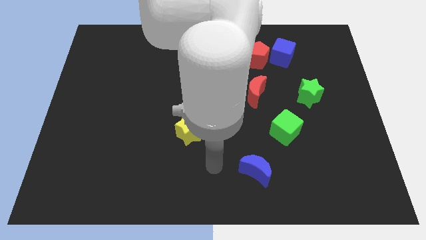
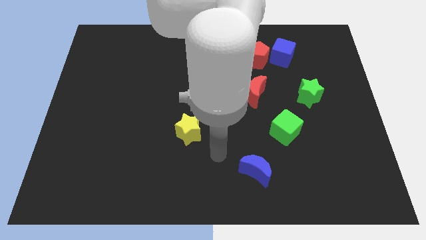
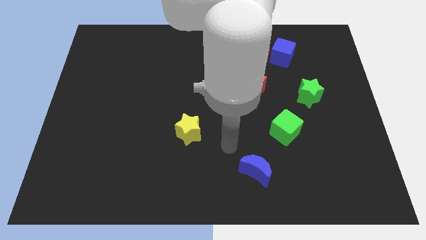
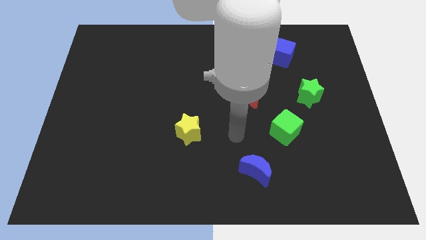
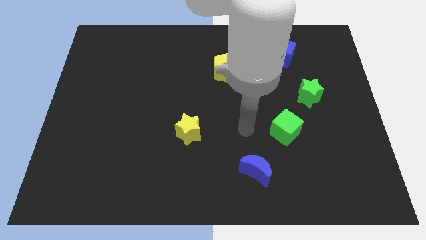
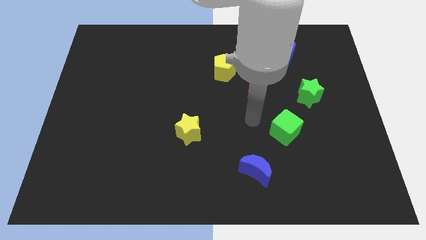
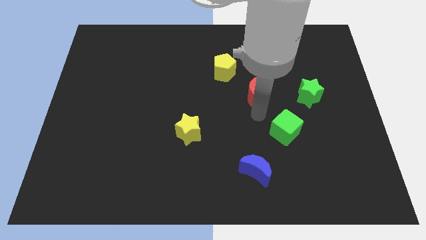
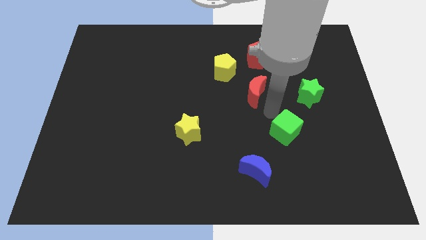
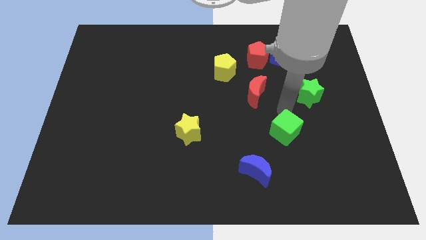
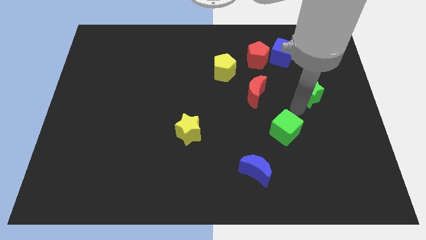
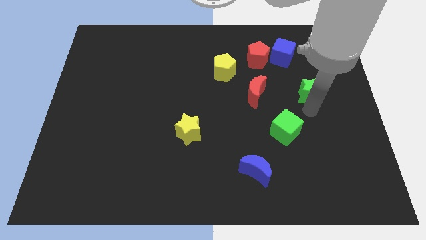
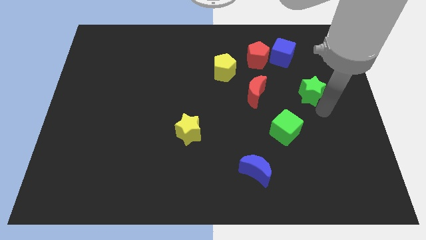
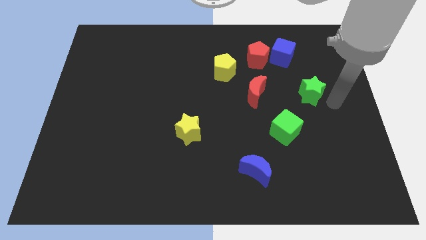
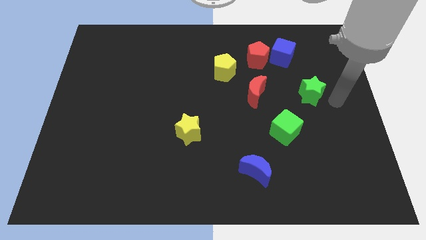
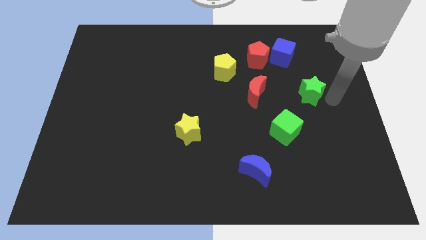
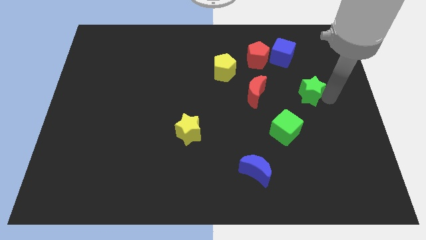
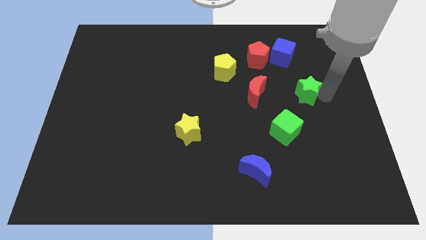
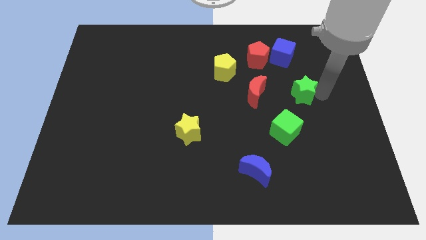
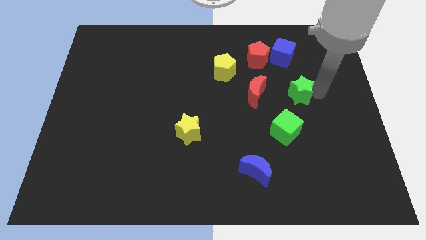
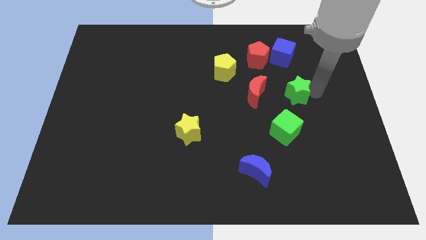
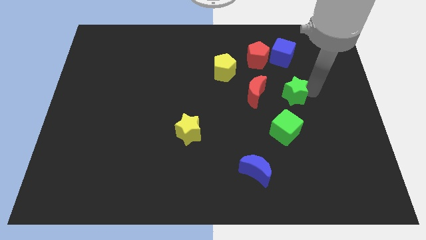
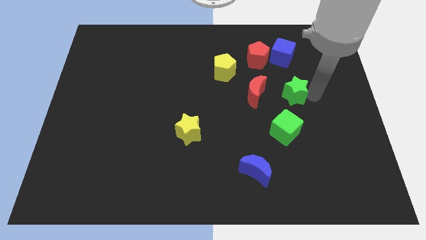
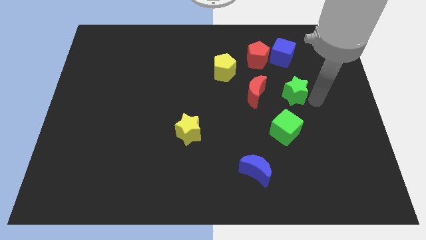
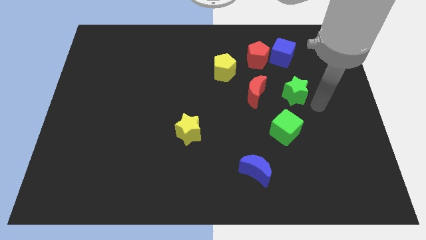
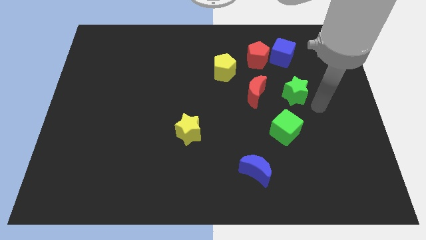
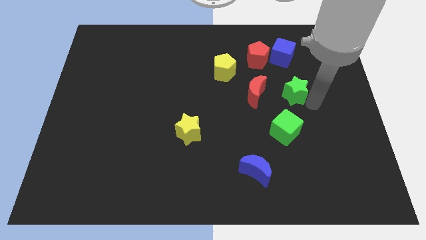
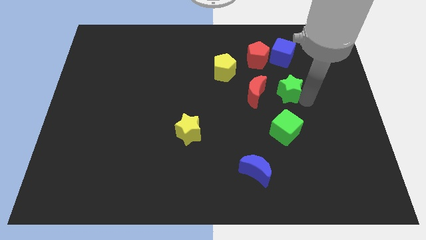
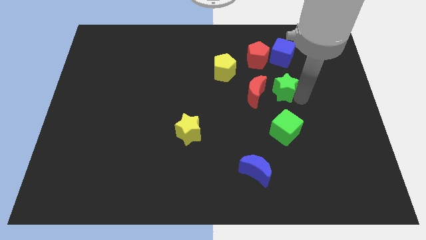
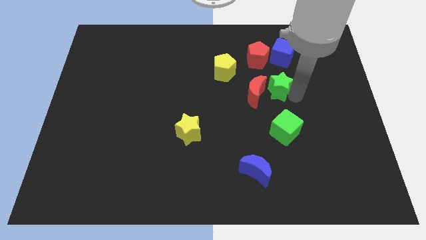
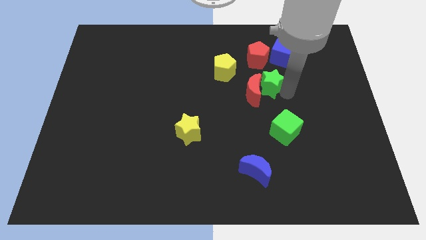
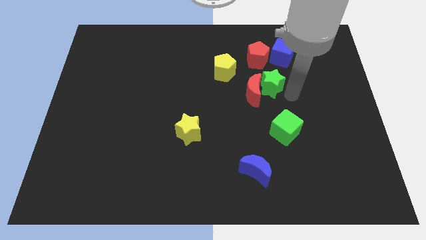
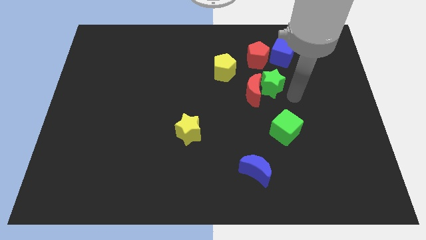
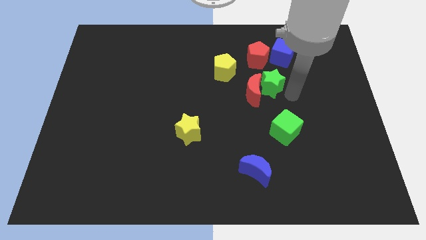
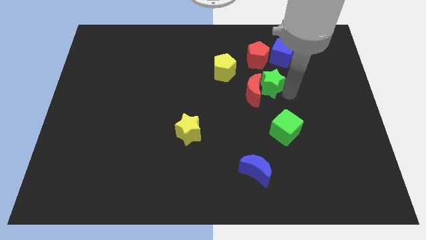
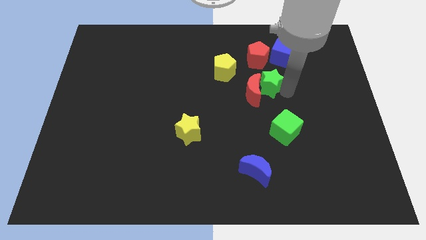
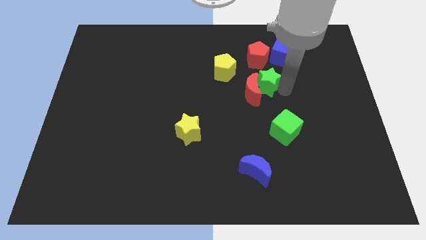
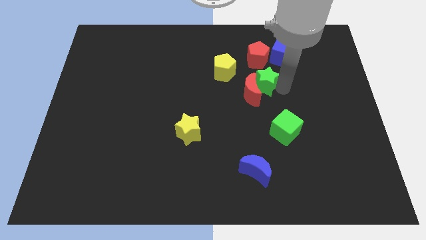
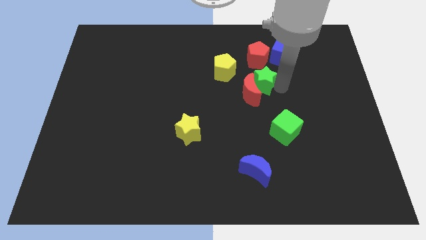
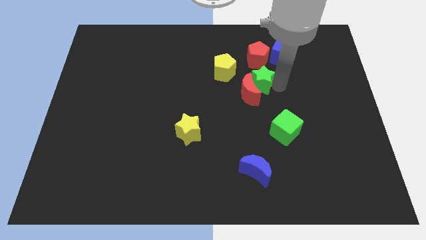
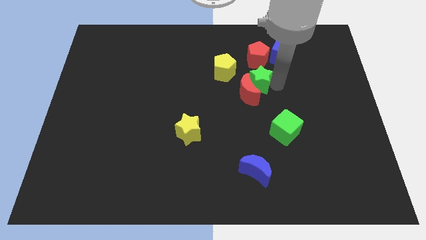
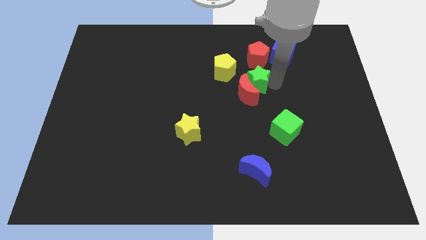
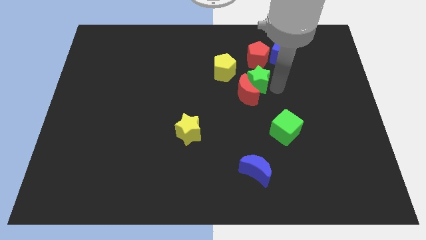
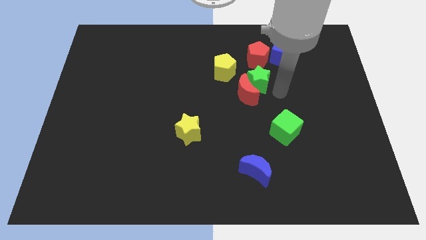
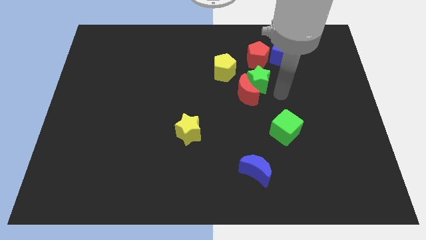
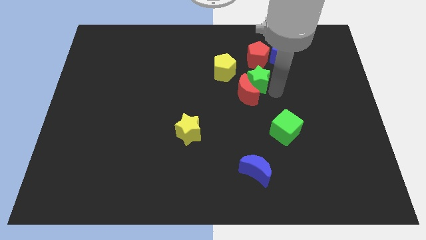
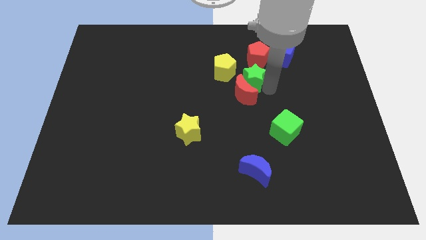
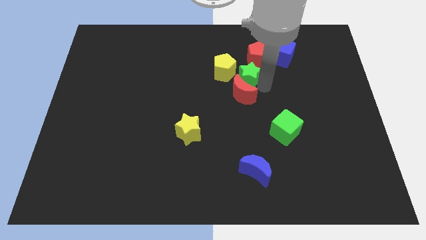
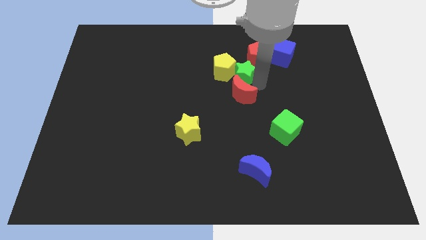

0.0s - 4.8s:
move the green star next to the yellow pentagon

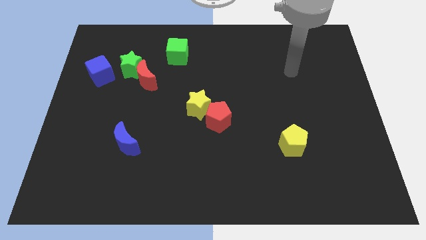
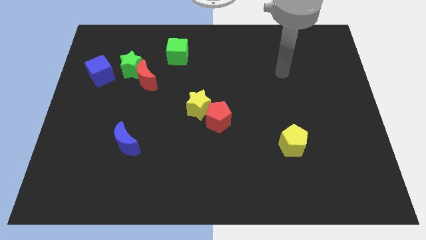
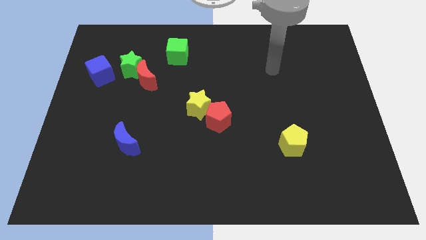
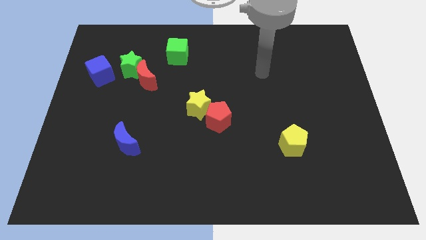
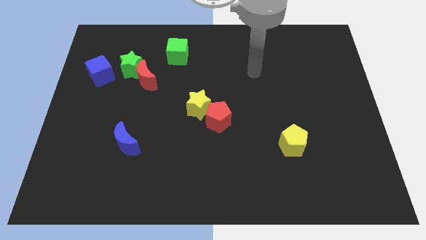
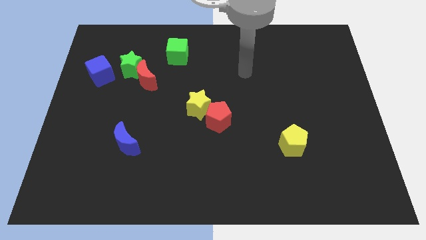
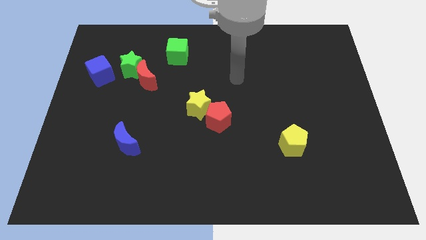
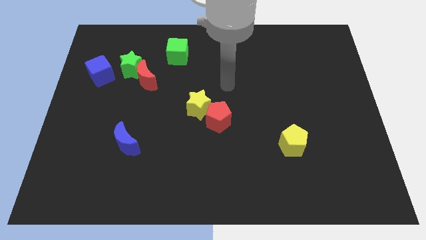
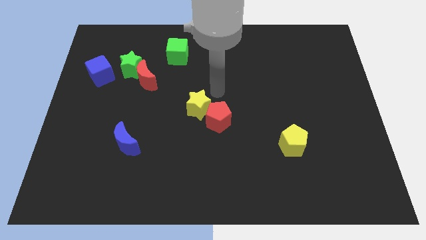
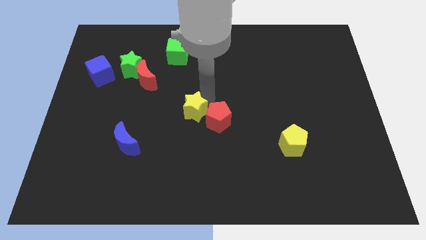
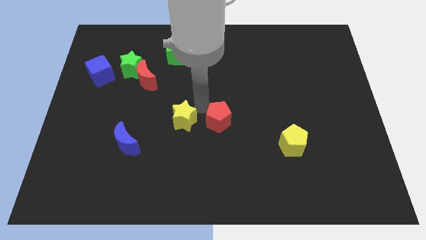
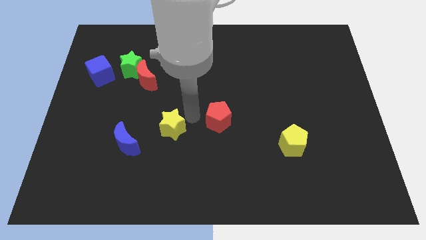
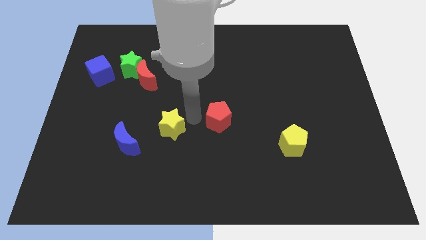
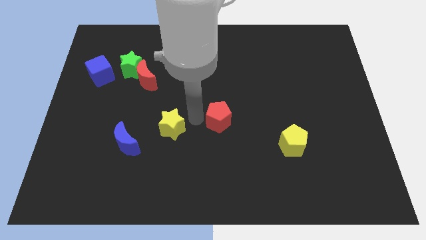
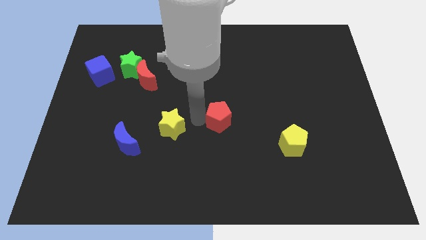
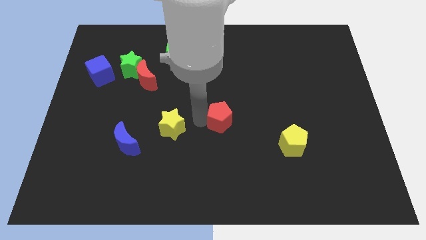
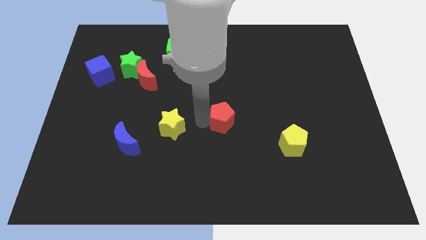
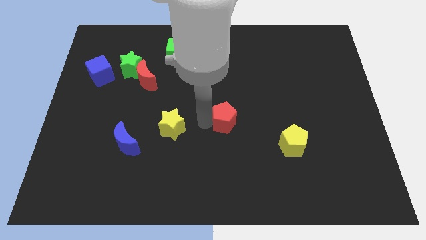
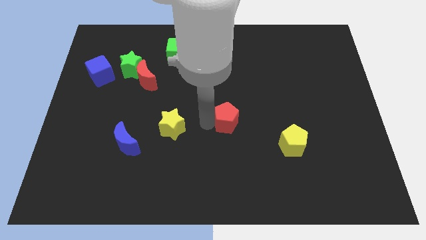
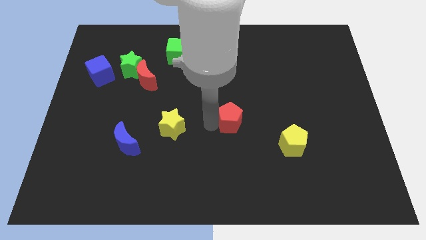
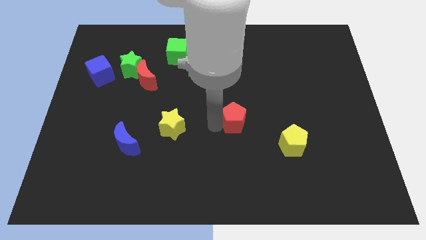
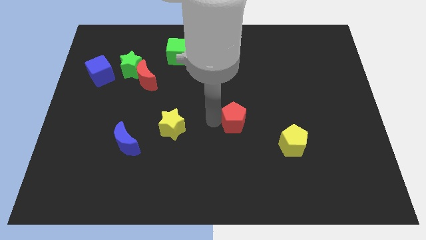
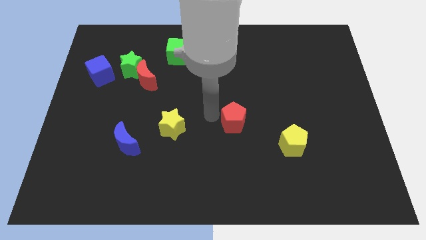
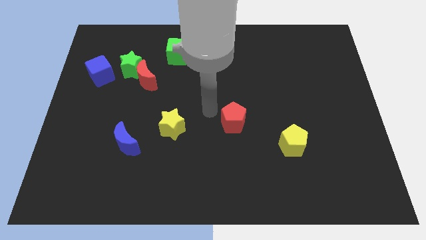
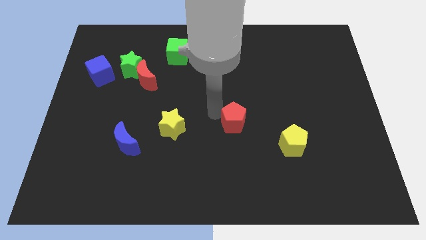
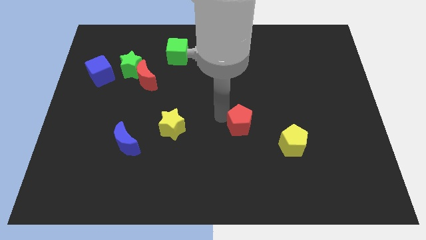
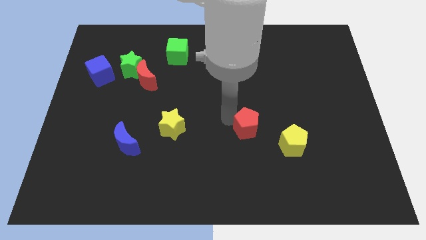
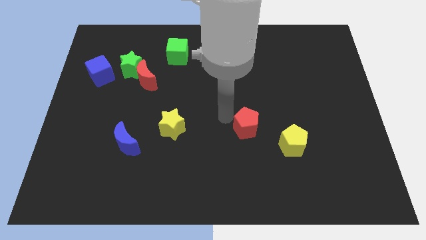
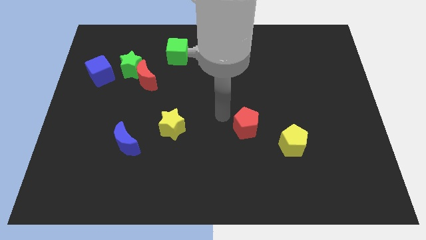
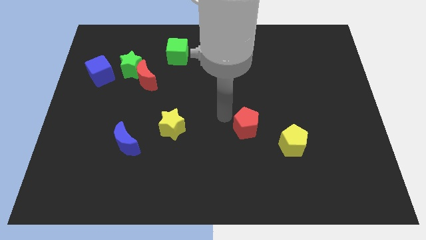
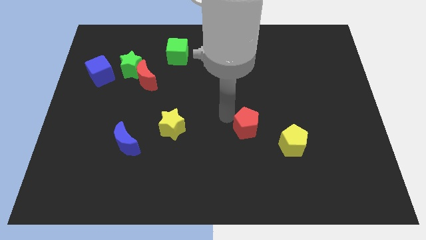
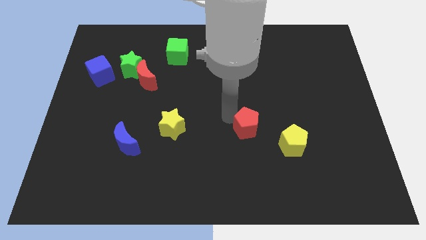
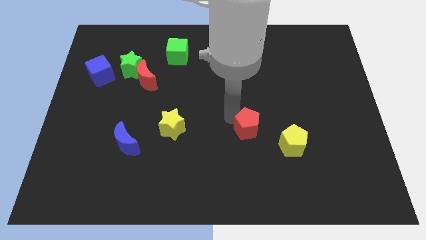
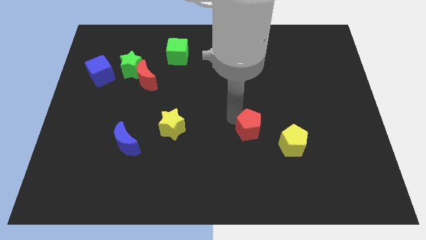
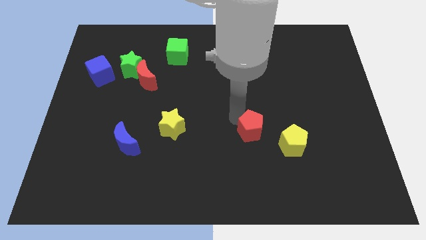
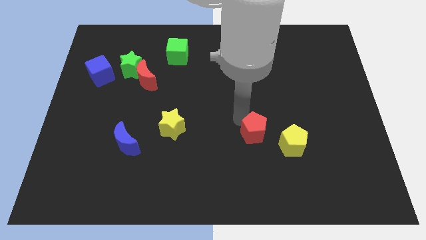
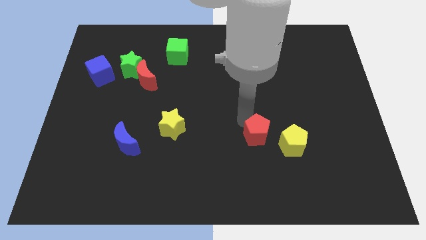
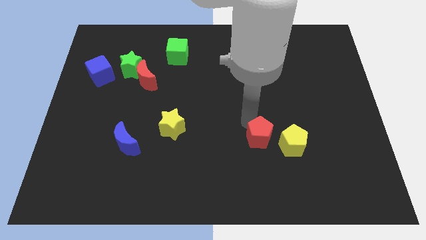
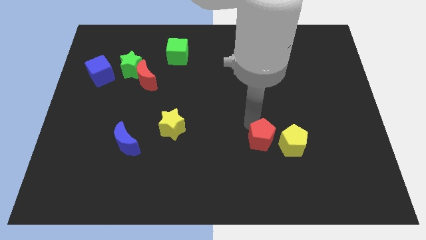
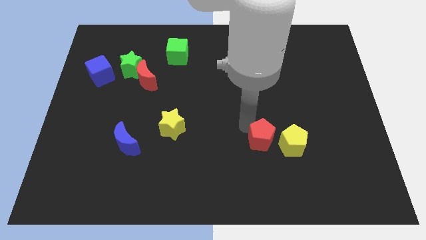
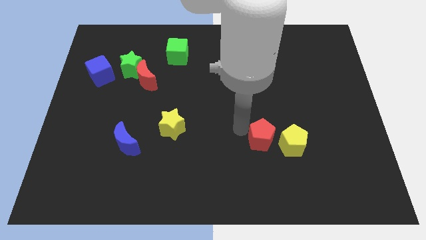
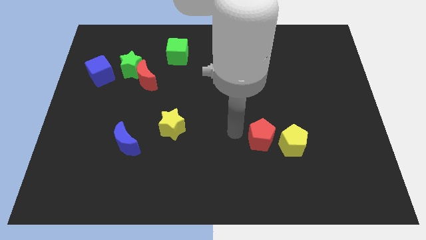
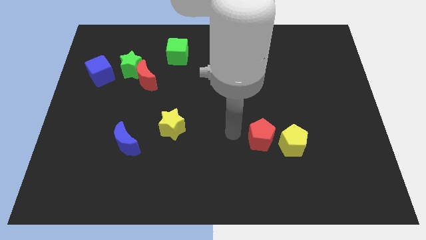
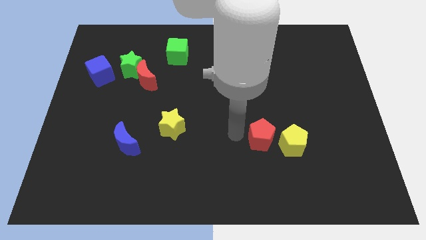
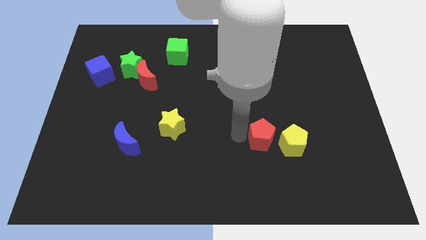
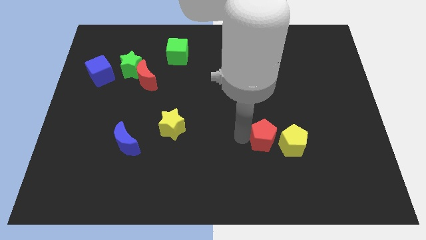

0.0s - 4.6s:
put the red pentagon close to the yellow pentagon
